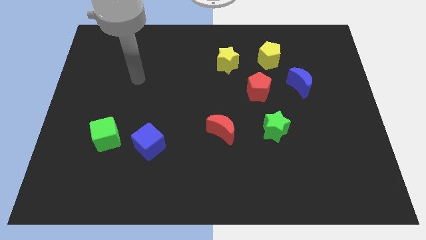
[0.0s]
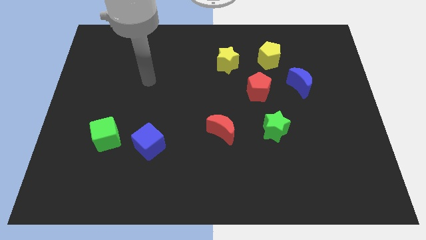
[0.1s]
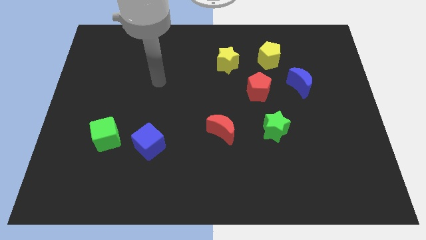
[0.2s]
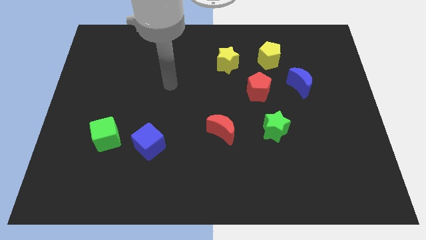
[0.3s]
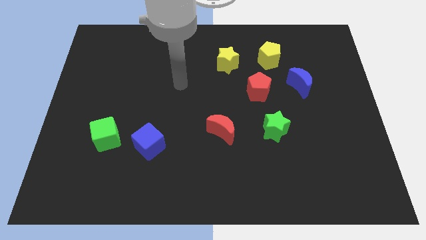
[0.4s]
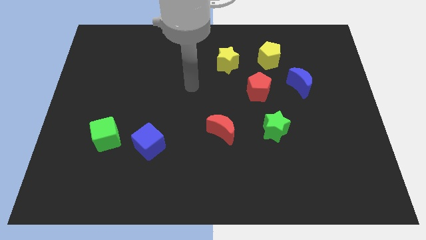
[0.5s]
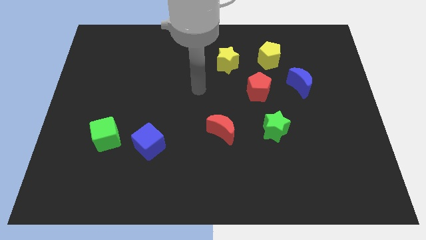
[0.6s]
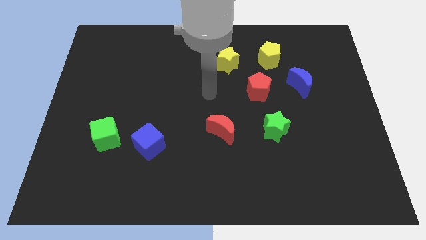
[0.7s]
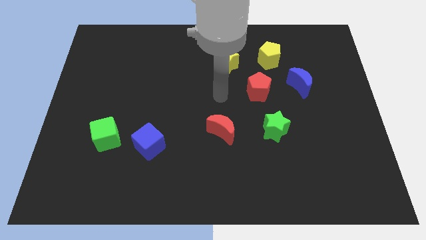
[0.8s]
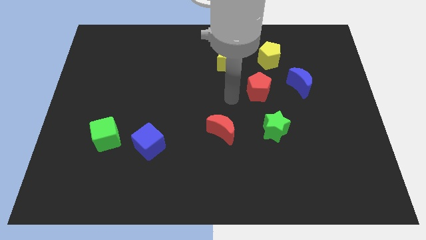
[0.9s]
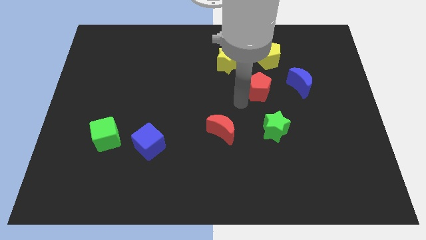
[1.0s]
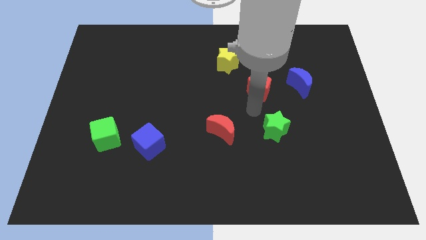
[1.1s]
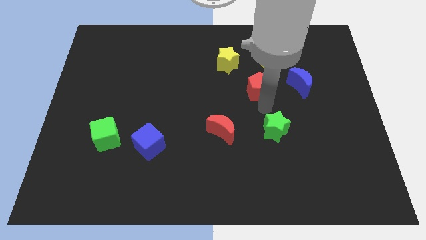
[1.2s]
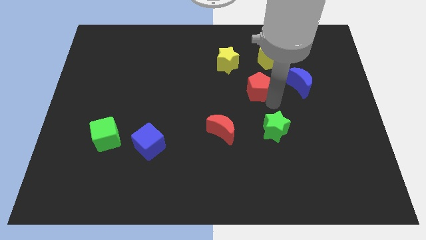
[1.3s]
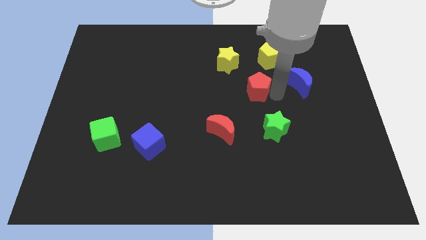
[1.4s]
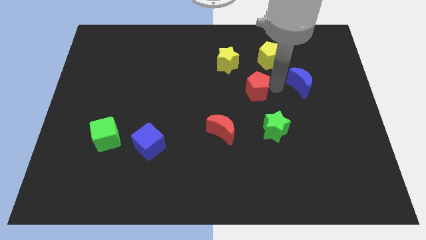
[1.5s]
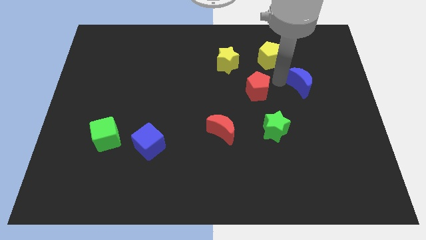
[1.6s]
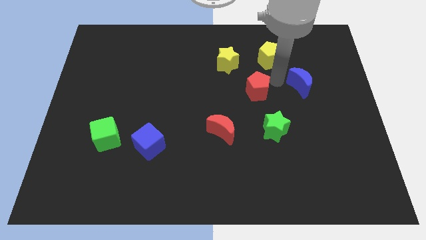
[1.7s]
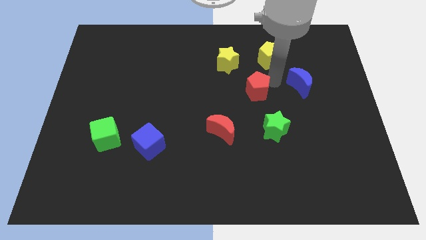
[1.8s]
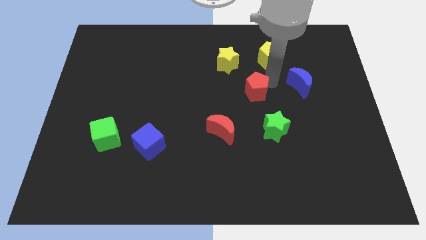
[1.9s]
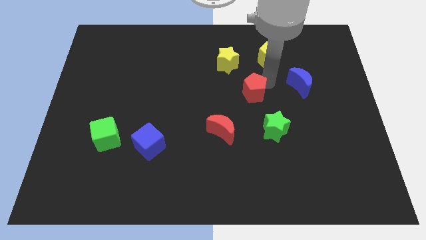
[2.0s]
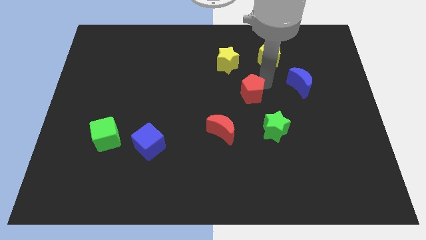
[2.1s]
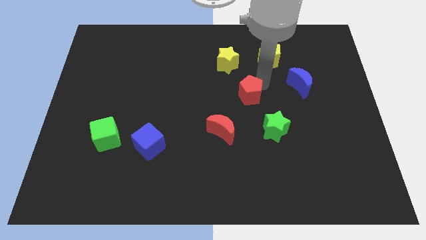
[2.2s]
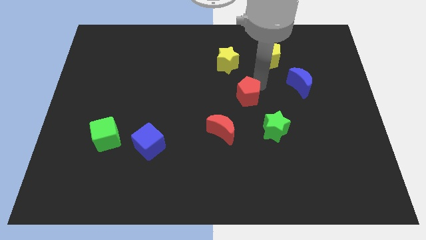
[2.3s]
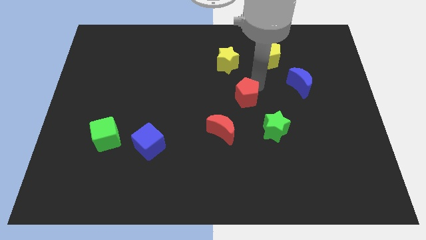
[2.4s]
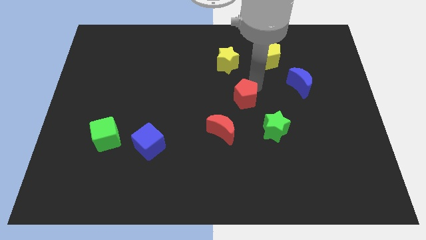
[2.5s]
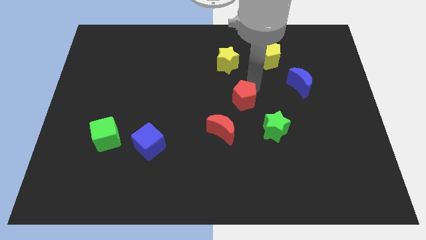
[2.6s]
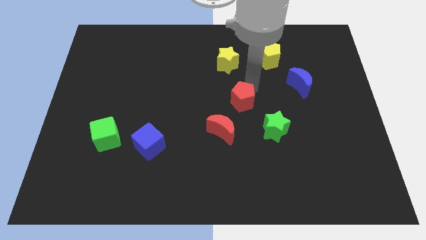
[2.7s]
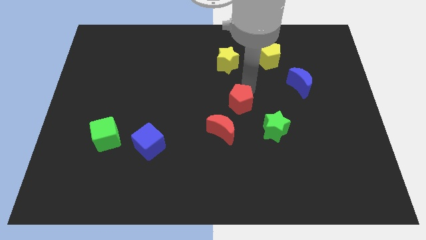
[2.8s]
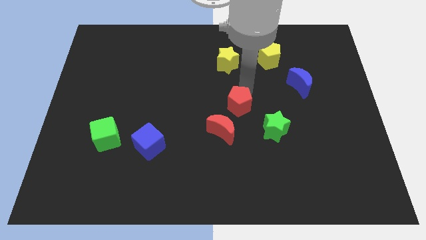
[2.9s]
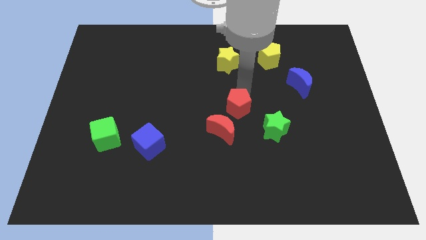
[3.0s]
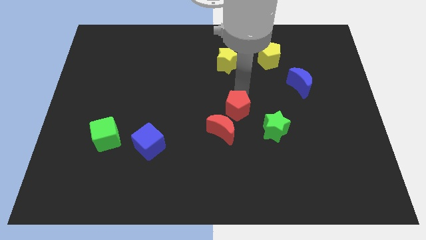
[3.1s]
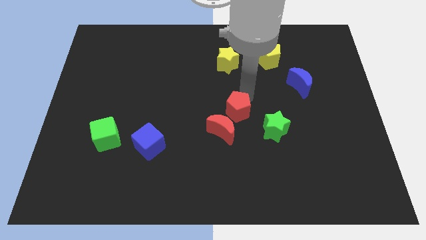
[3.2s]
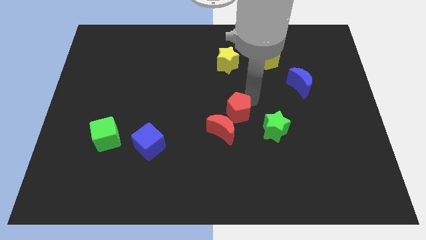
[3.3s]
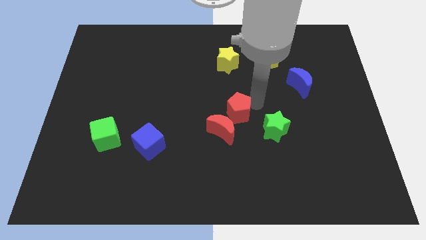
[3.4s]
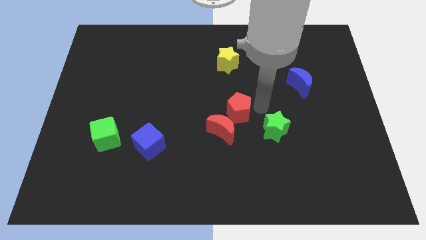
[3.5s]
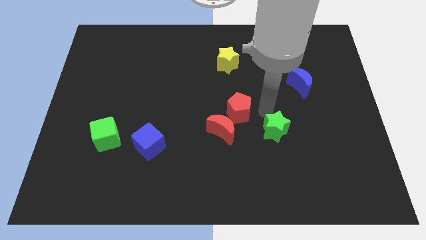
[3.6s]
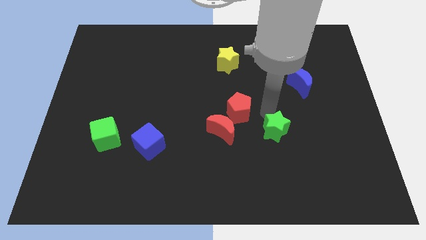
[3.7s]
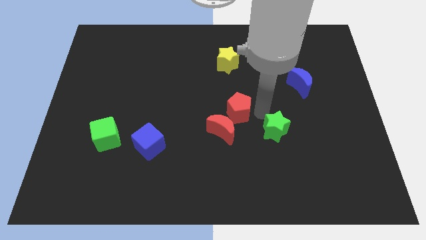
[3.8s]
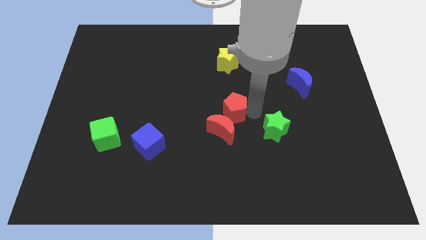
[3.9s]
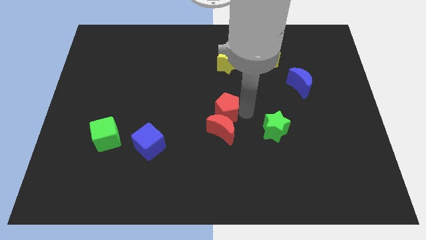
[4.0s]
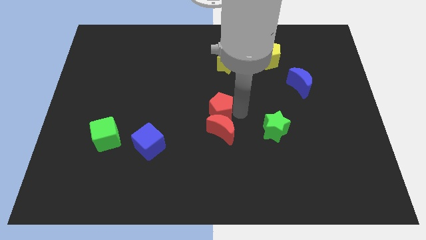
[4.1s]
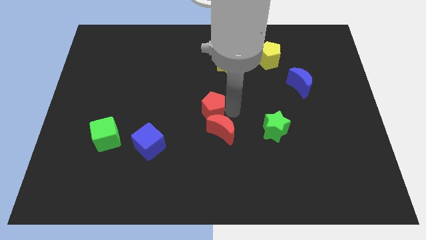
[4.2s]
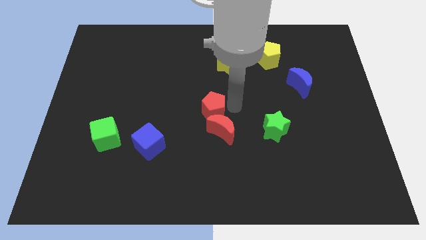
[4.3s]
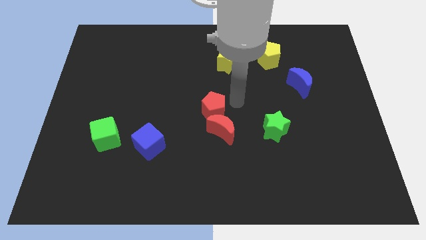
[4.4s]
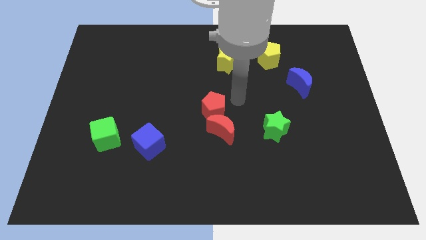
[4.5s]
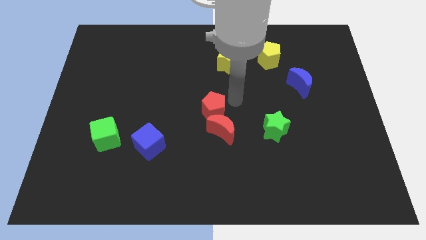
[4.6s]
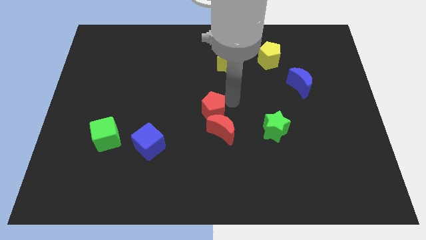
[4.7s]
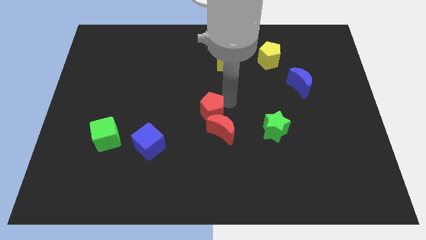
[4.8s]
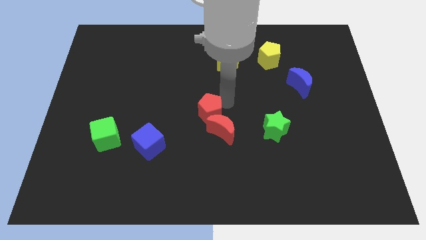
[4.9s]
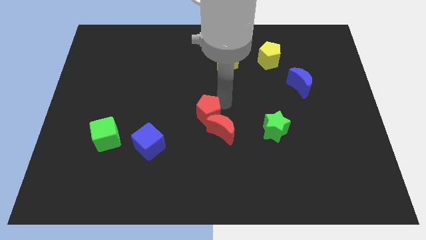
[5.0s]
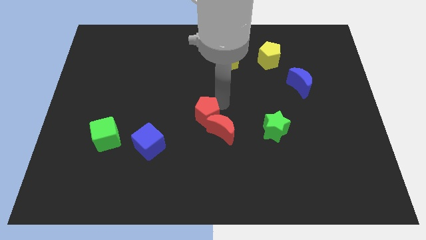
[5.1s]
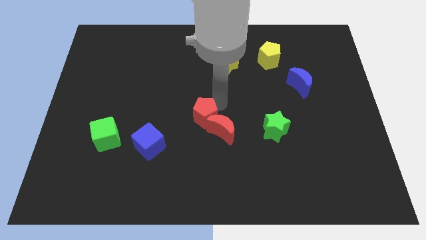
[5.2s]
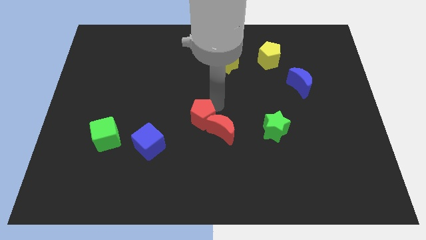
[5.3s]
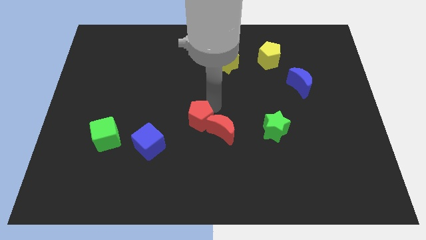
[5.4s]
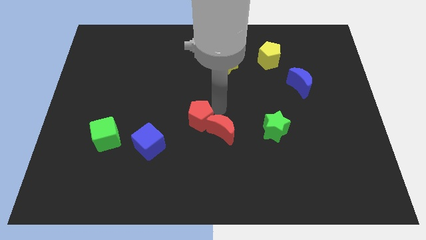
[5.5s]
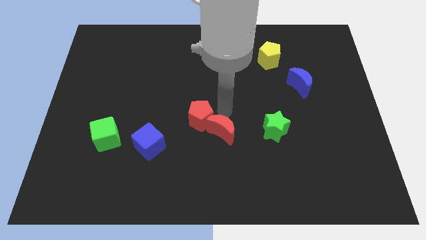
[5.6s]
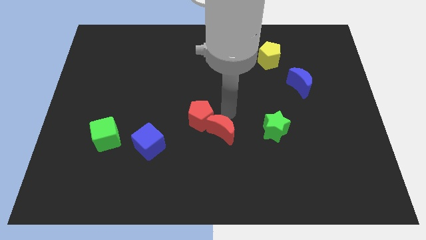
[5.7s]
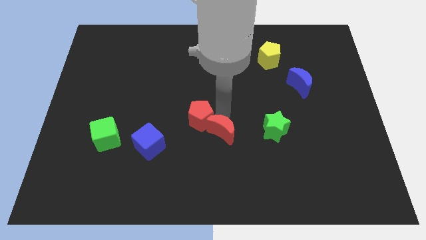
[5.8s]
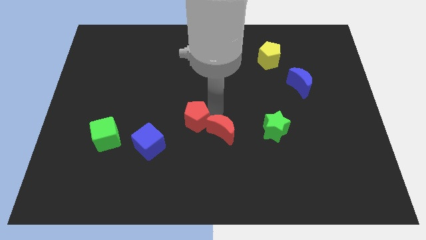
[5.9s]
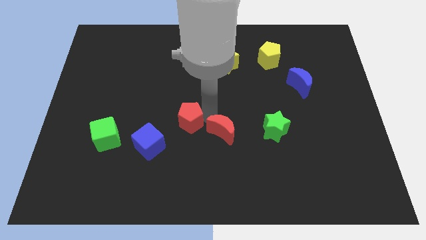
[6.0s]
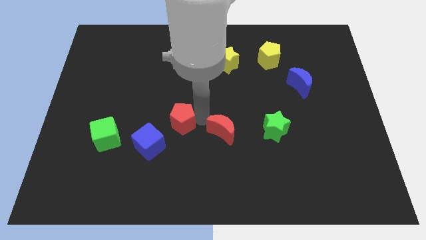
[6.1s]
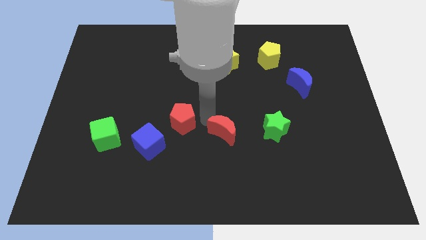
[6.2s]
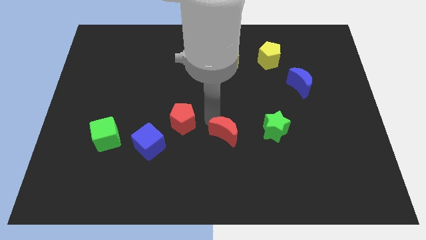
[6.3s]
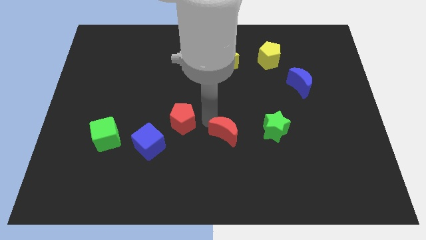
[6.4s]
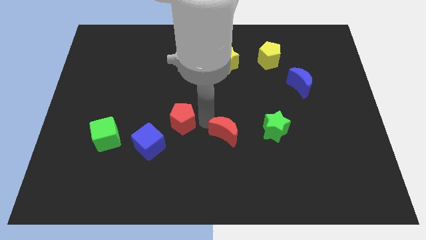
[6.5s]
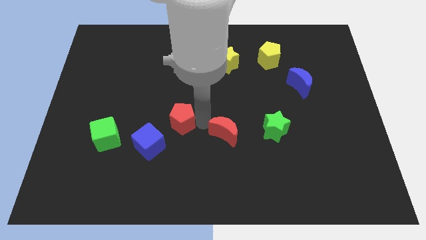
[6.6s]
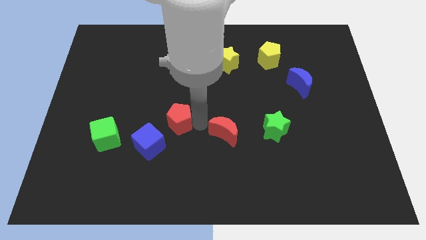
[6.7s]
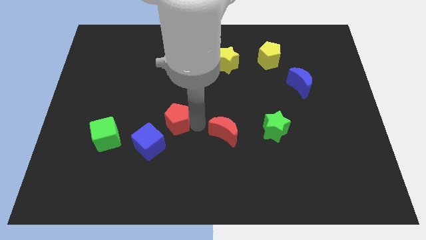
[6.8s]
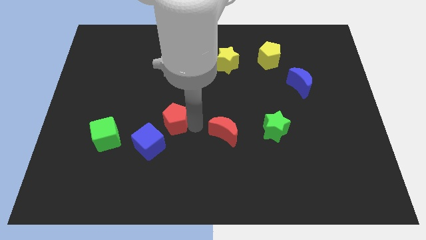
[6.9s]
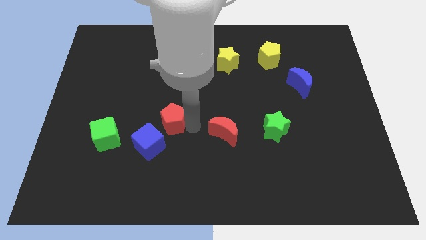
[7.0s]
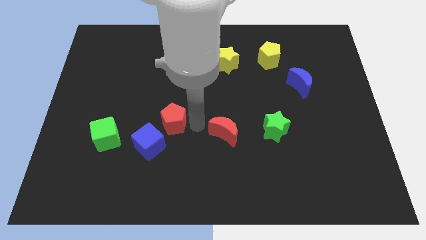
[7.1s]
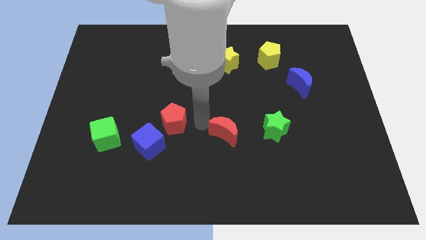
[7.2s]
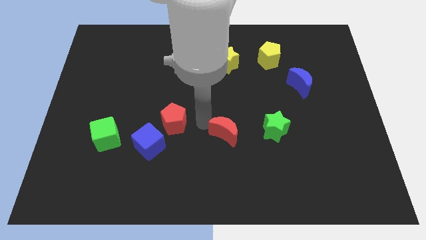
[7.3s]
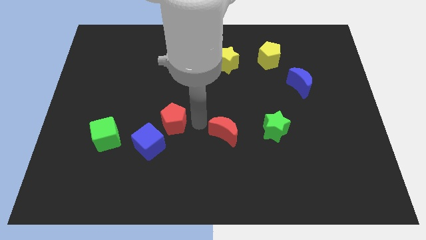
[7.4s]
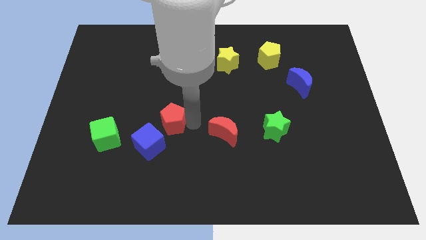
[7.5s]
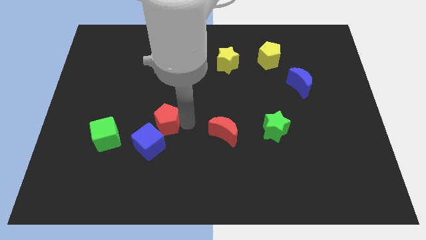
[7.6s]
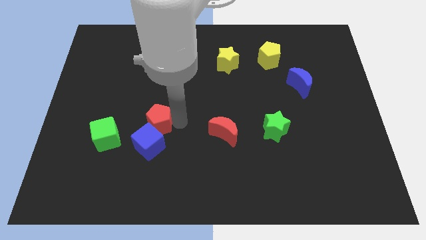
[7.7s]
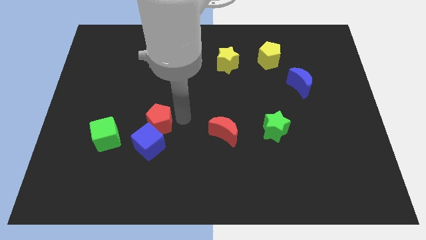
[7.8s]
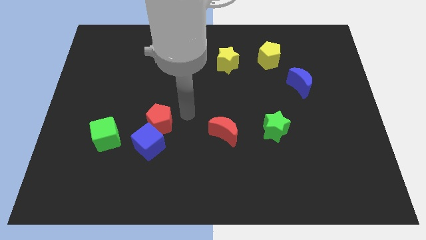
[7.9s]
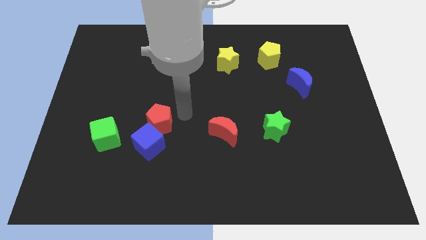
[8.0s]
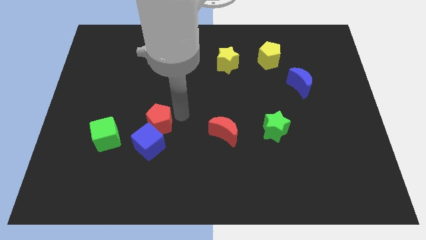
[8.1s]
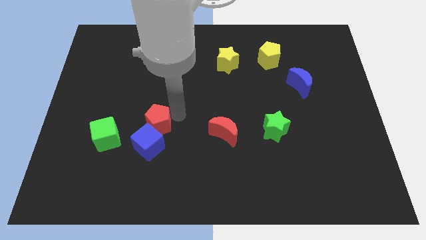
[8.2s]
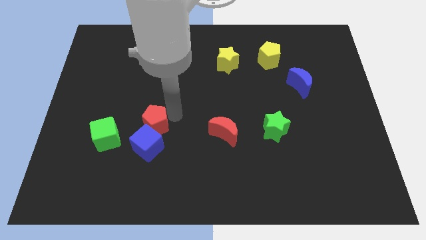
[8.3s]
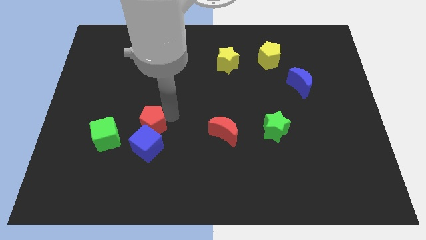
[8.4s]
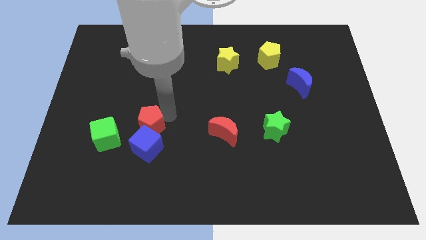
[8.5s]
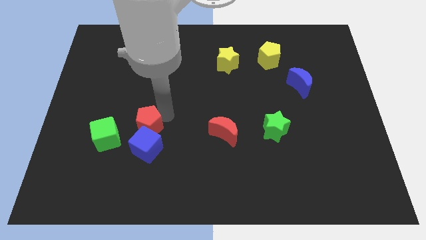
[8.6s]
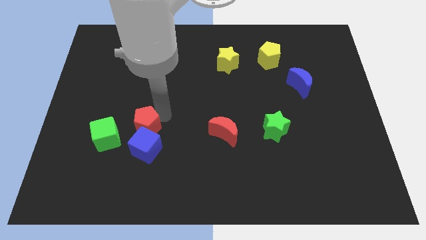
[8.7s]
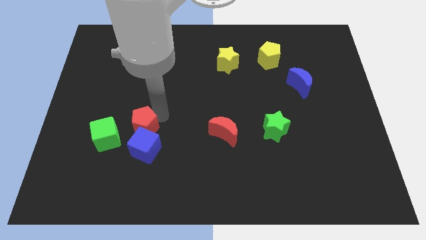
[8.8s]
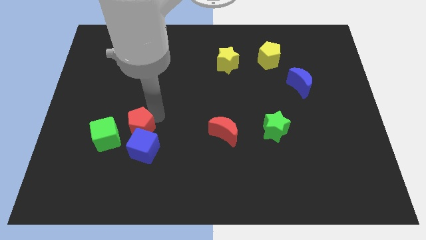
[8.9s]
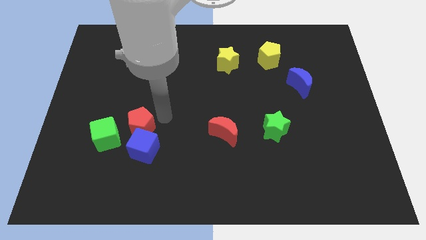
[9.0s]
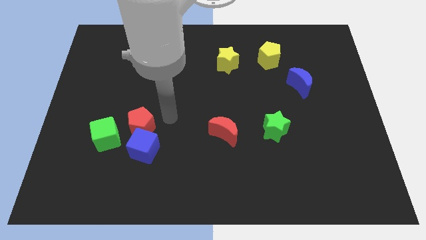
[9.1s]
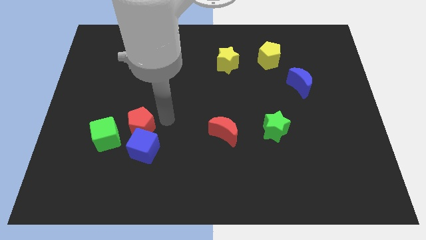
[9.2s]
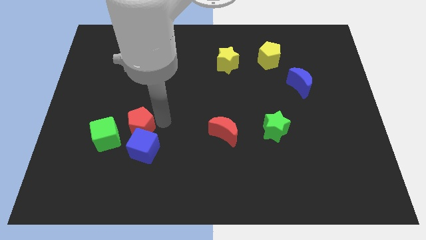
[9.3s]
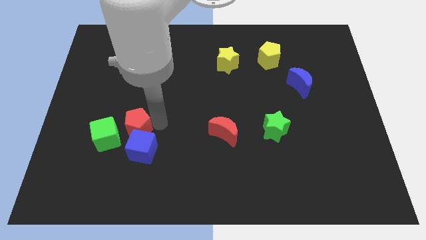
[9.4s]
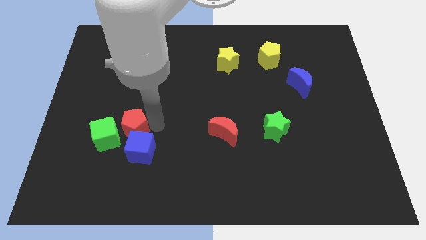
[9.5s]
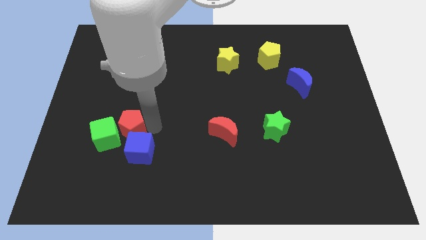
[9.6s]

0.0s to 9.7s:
put the red pentagon towards the green cube
